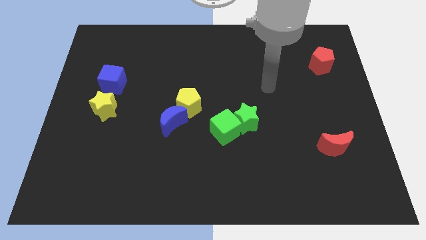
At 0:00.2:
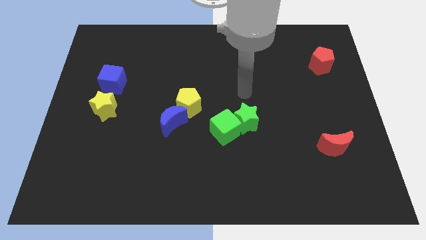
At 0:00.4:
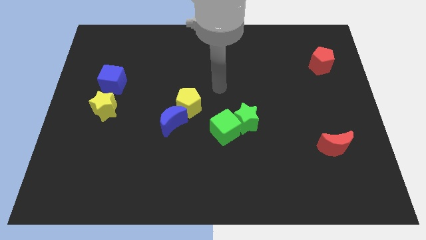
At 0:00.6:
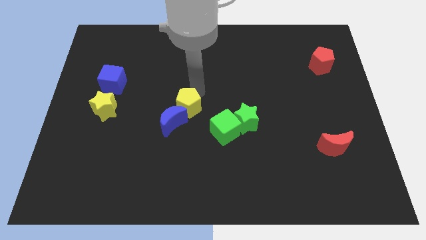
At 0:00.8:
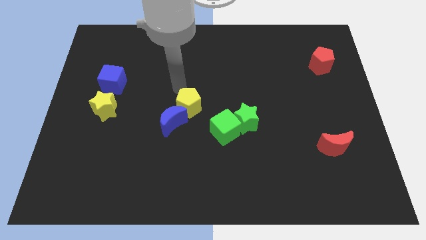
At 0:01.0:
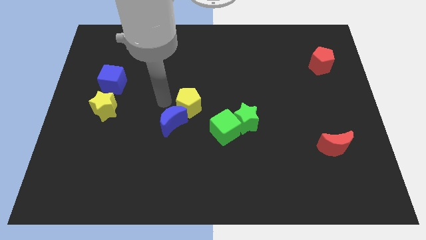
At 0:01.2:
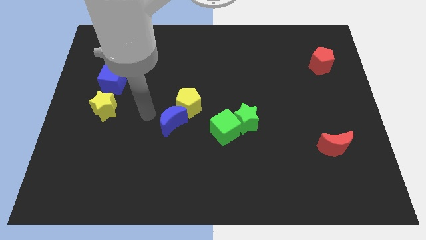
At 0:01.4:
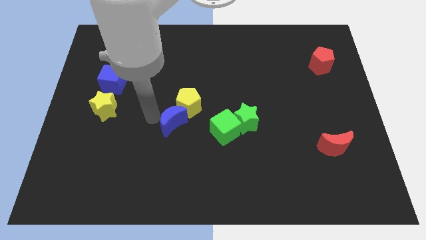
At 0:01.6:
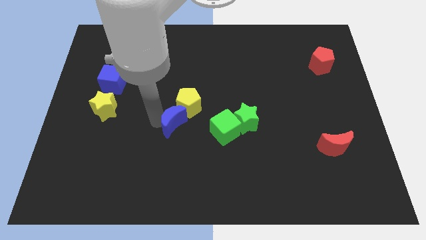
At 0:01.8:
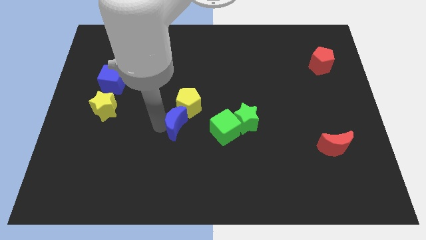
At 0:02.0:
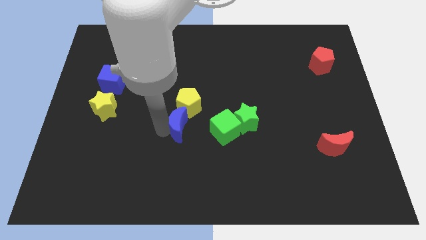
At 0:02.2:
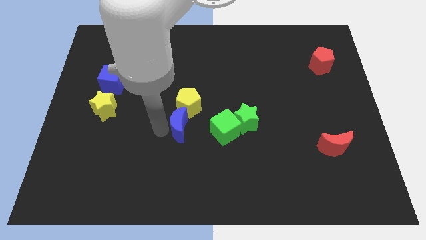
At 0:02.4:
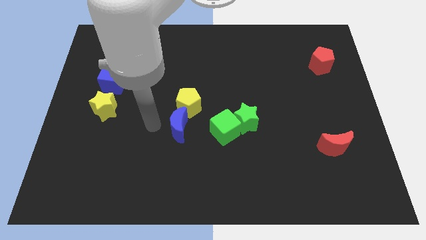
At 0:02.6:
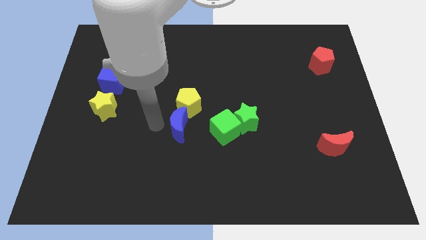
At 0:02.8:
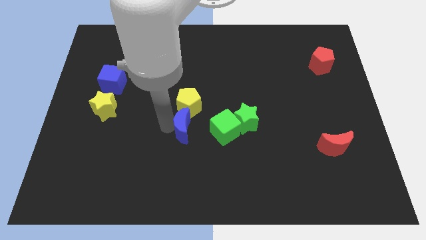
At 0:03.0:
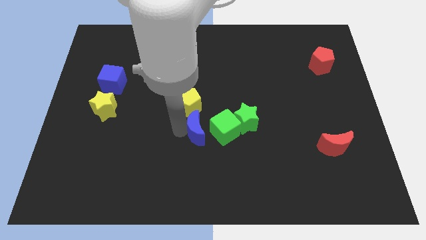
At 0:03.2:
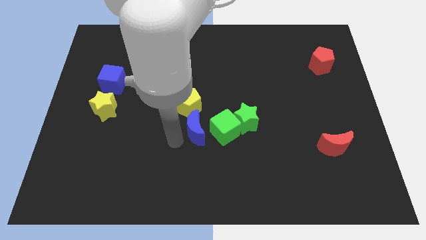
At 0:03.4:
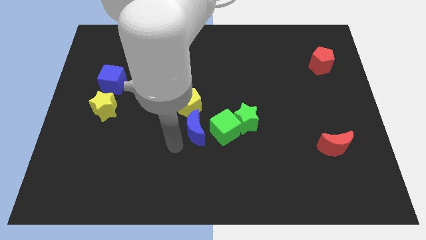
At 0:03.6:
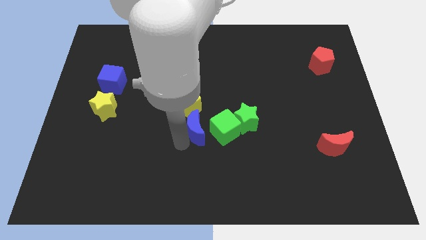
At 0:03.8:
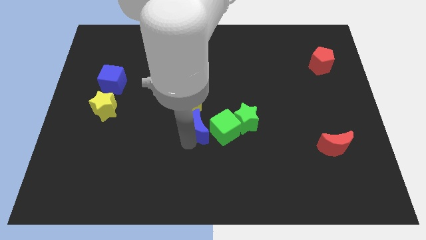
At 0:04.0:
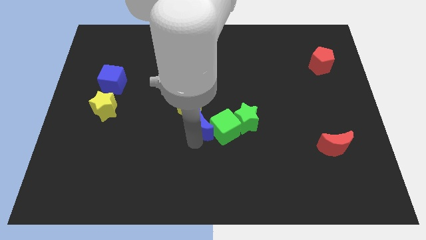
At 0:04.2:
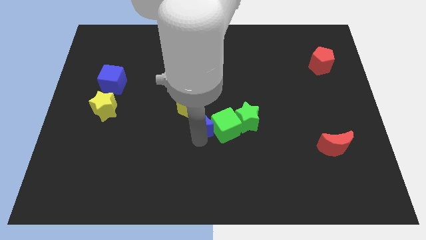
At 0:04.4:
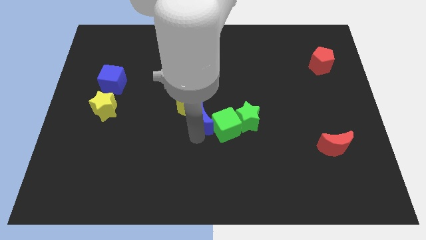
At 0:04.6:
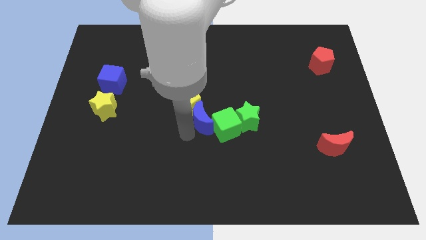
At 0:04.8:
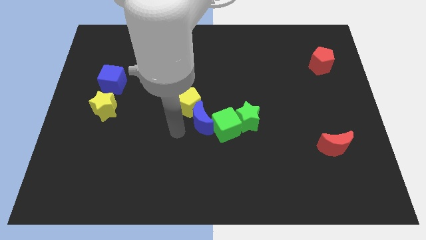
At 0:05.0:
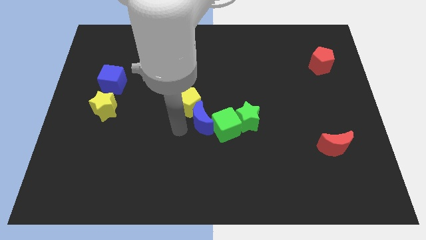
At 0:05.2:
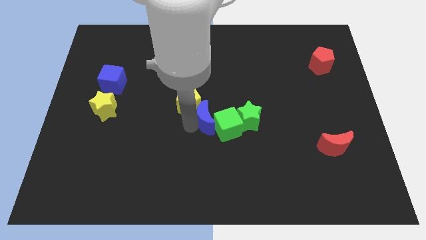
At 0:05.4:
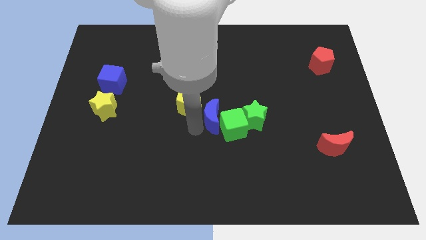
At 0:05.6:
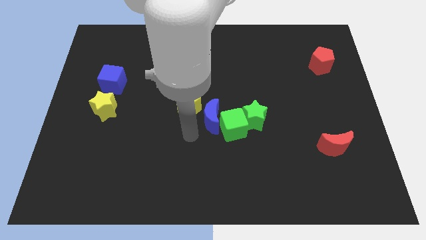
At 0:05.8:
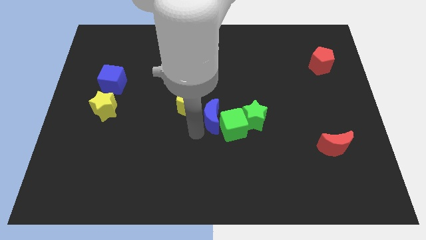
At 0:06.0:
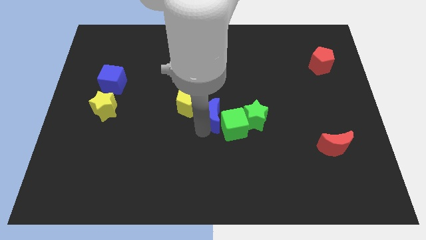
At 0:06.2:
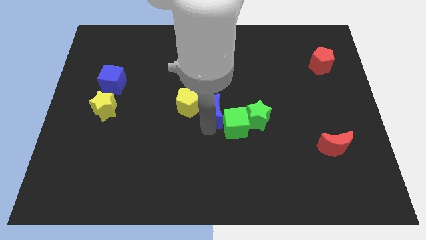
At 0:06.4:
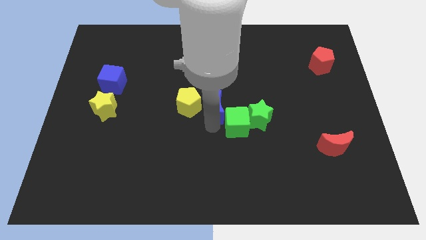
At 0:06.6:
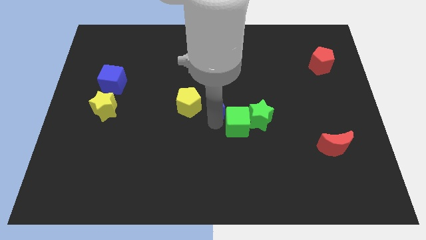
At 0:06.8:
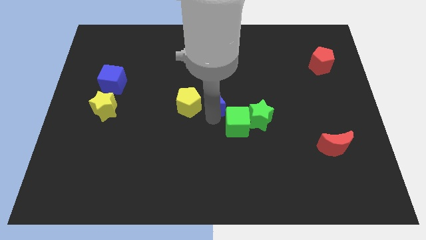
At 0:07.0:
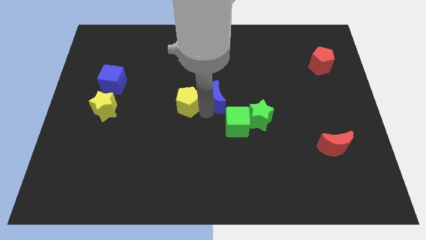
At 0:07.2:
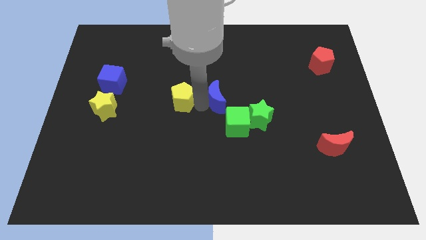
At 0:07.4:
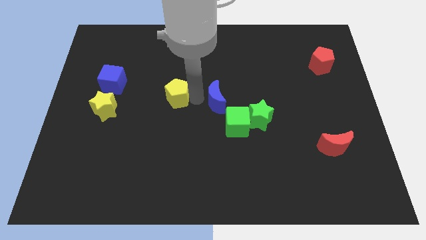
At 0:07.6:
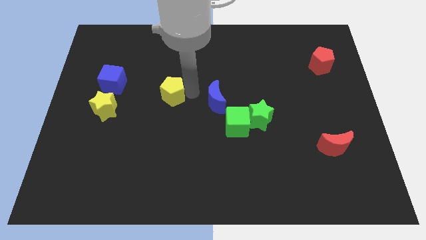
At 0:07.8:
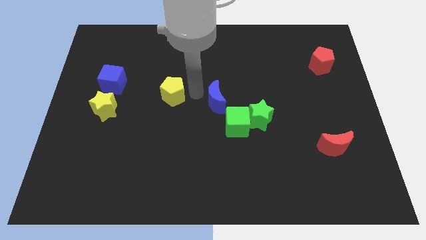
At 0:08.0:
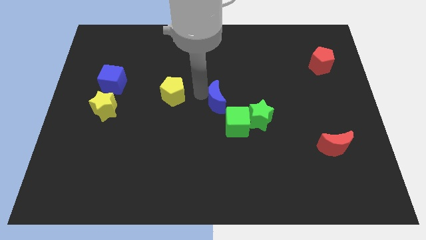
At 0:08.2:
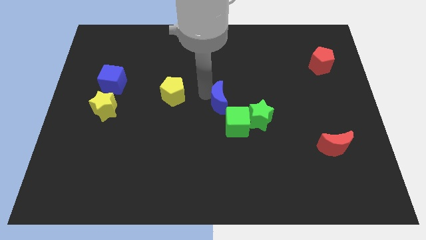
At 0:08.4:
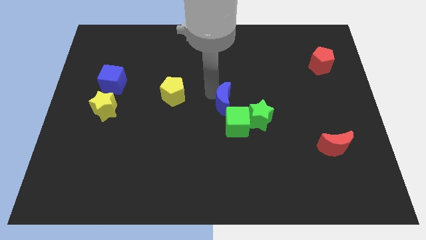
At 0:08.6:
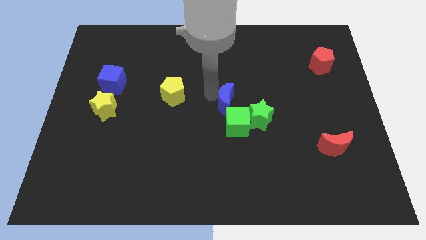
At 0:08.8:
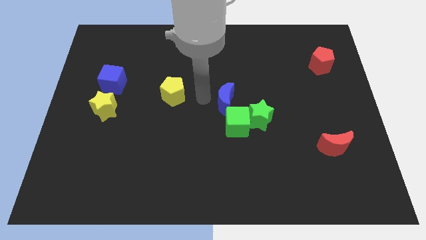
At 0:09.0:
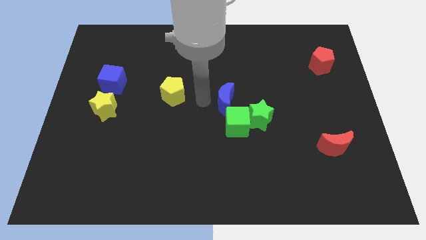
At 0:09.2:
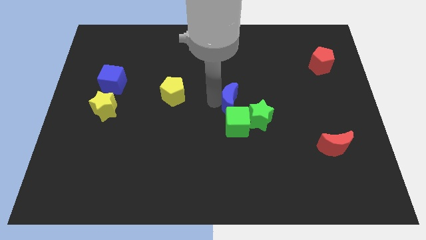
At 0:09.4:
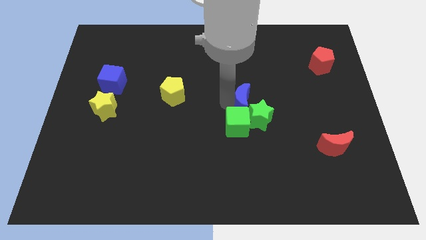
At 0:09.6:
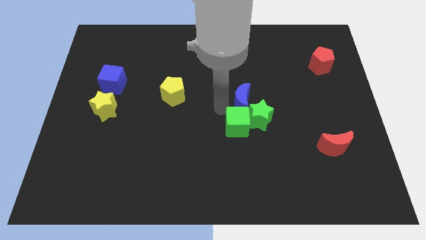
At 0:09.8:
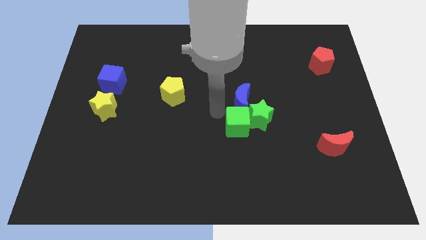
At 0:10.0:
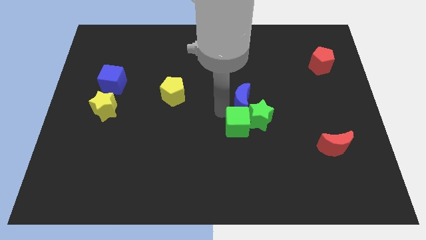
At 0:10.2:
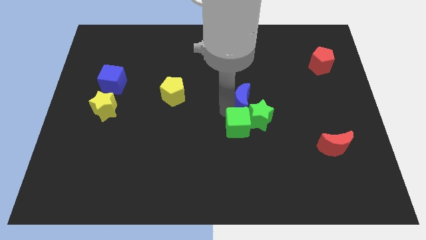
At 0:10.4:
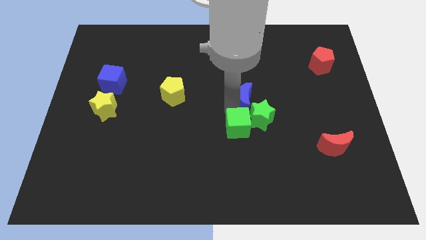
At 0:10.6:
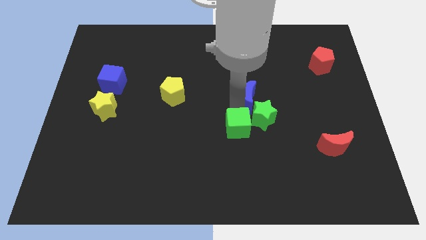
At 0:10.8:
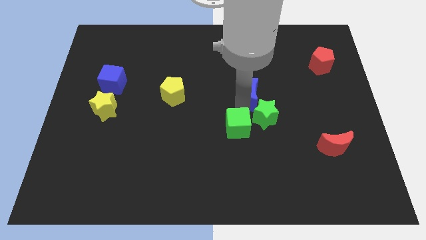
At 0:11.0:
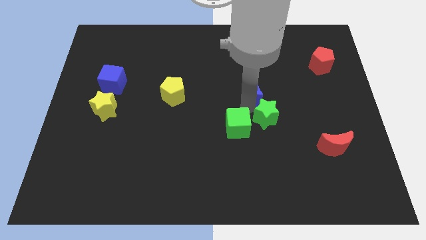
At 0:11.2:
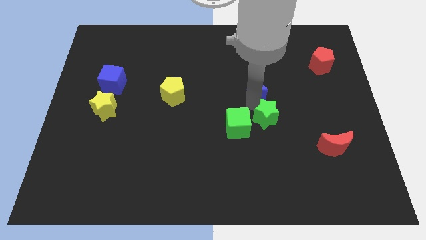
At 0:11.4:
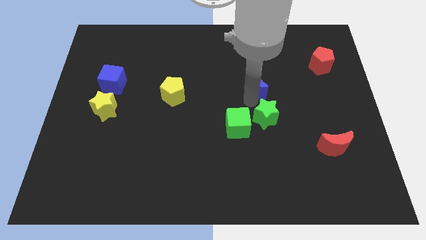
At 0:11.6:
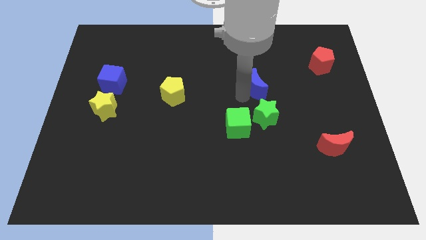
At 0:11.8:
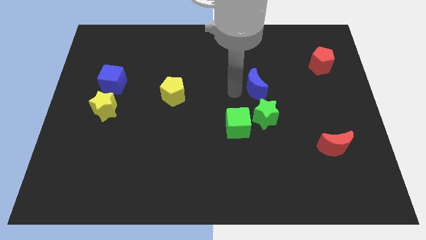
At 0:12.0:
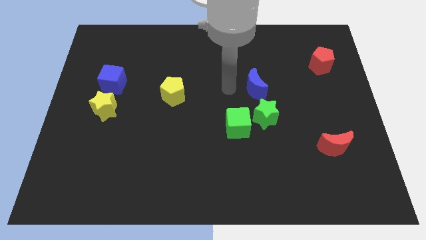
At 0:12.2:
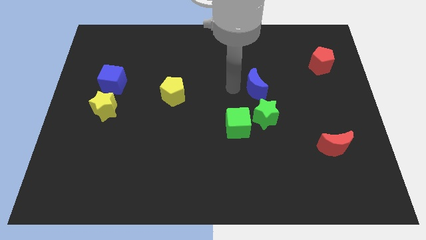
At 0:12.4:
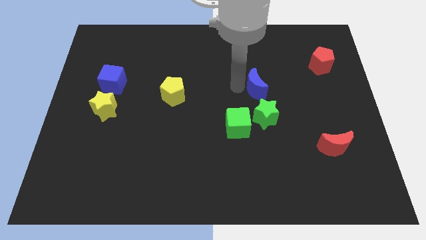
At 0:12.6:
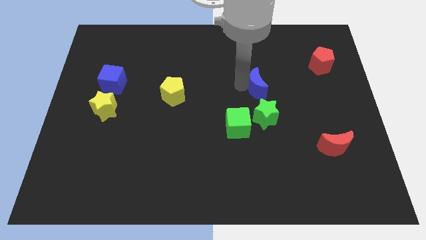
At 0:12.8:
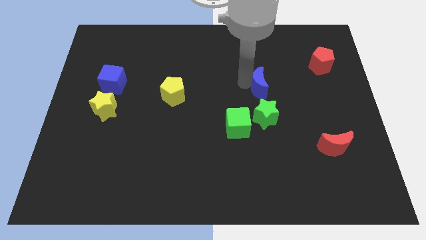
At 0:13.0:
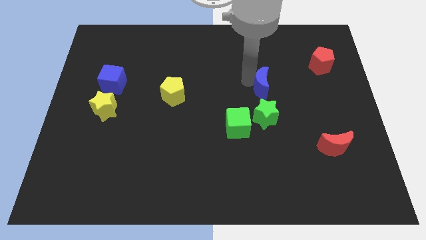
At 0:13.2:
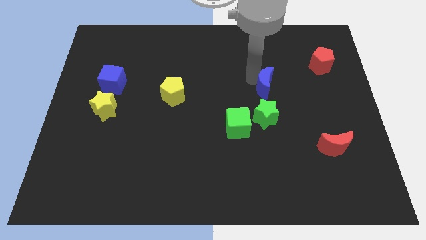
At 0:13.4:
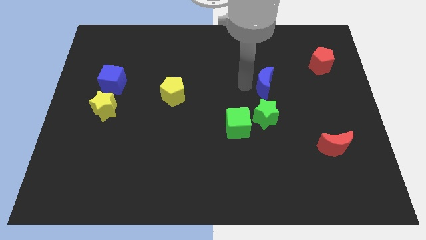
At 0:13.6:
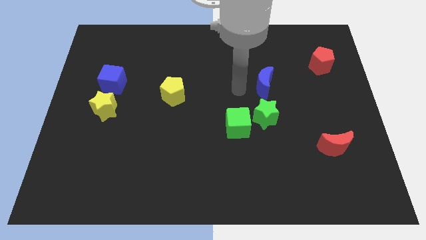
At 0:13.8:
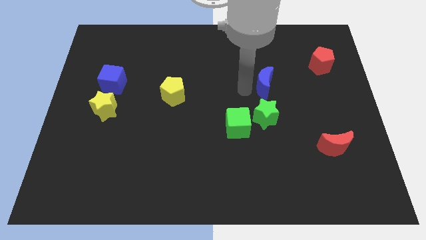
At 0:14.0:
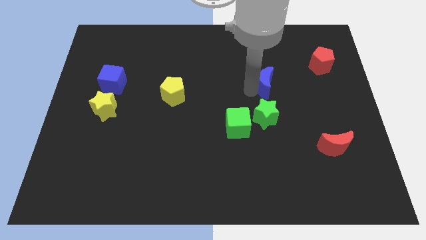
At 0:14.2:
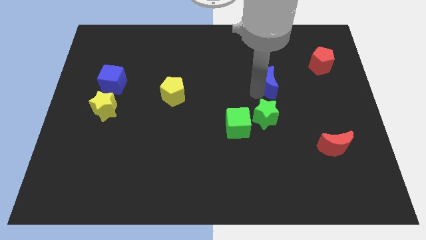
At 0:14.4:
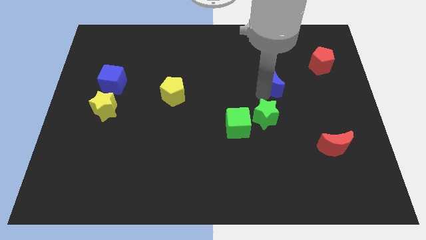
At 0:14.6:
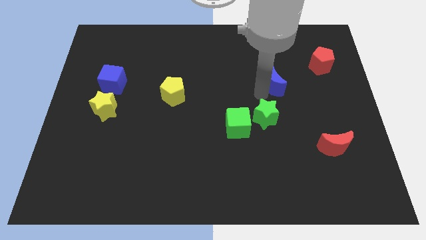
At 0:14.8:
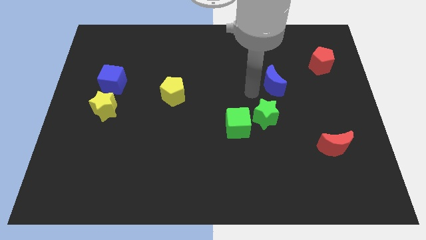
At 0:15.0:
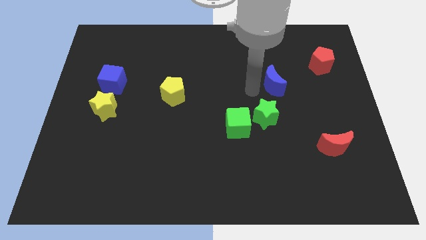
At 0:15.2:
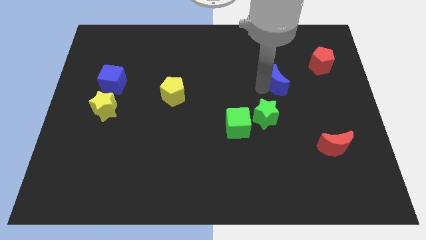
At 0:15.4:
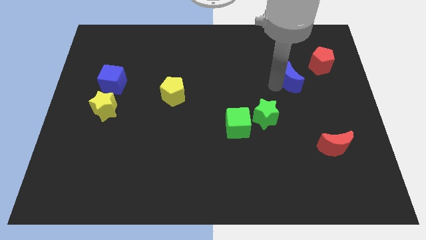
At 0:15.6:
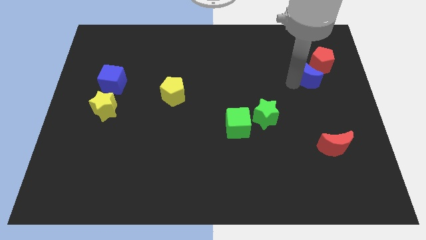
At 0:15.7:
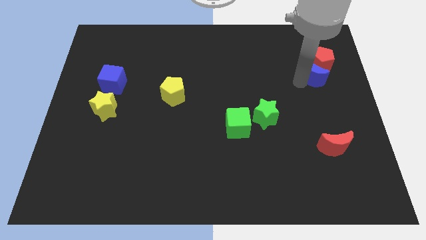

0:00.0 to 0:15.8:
move the blue moon towards the red pentagon
